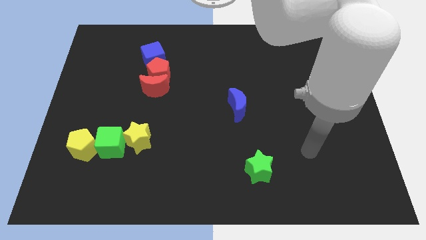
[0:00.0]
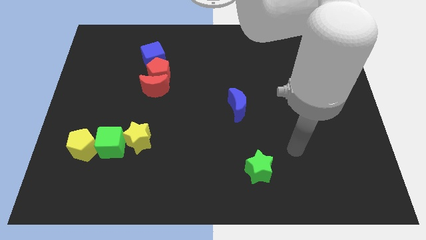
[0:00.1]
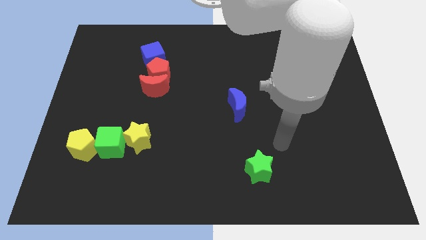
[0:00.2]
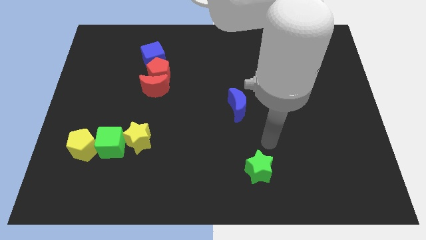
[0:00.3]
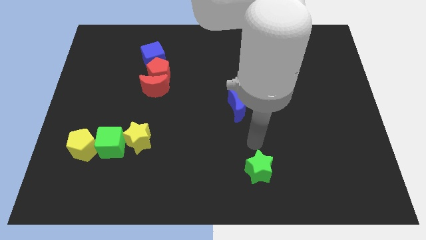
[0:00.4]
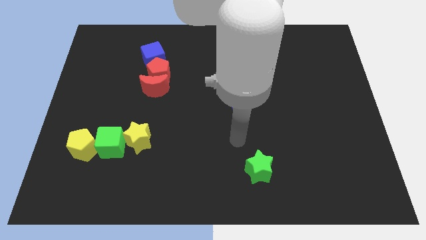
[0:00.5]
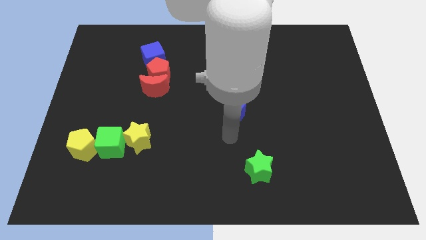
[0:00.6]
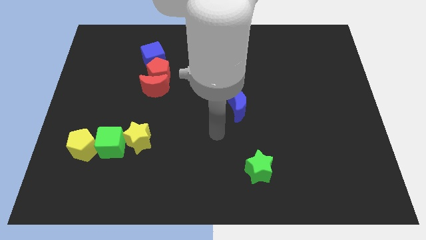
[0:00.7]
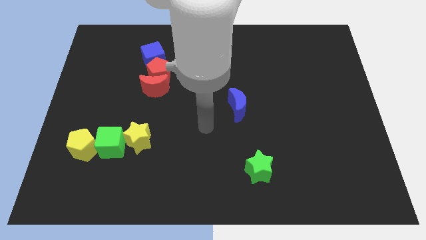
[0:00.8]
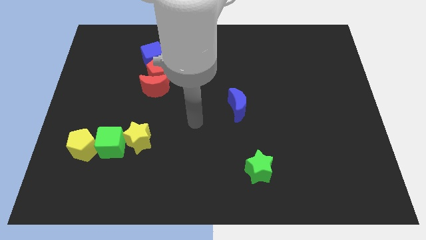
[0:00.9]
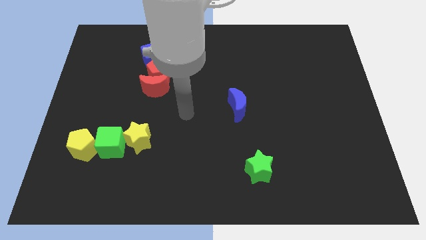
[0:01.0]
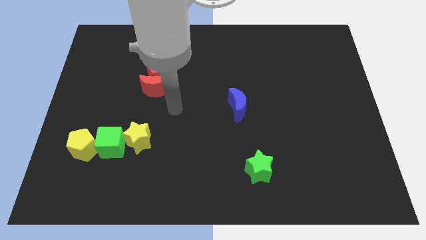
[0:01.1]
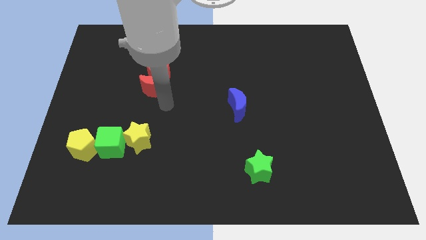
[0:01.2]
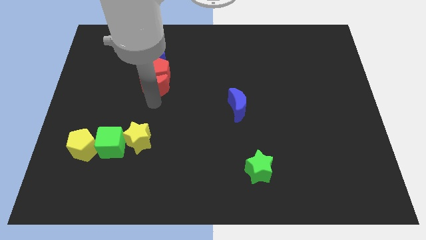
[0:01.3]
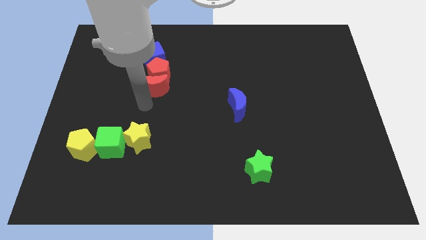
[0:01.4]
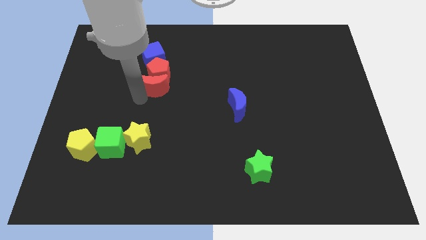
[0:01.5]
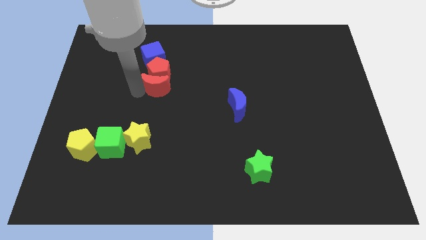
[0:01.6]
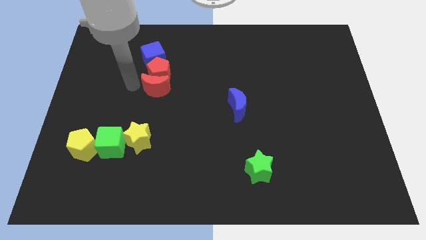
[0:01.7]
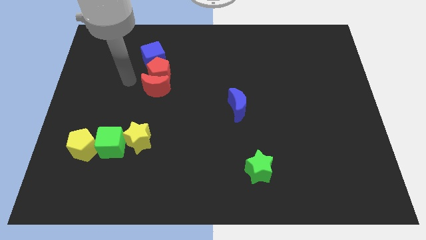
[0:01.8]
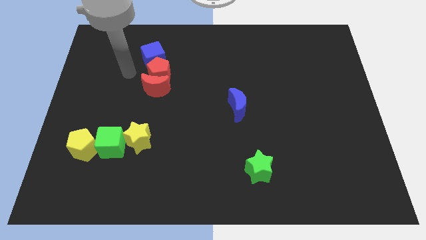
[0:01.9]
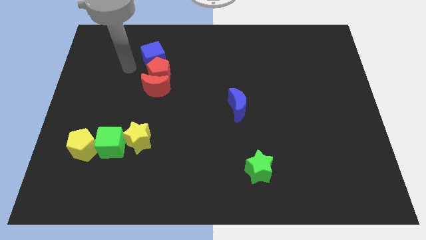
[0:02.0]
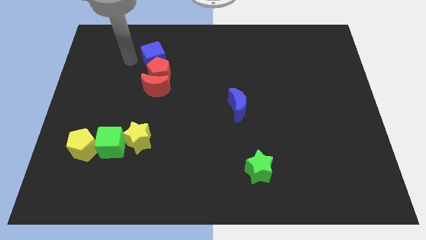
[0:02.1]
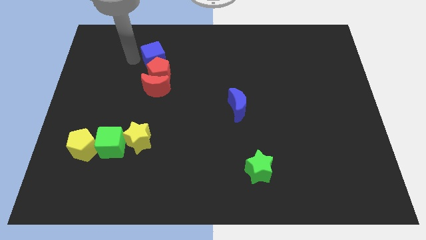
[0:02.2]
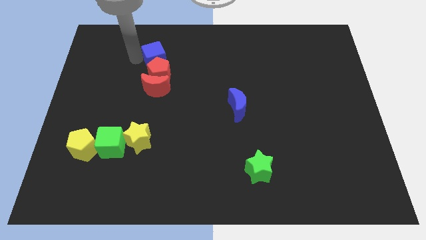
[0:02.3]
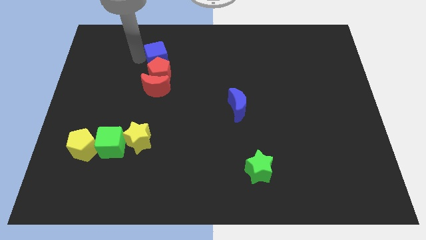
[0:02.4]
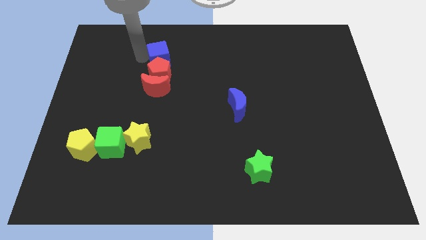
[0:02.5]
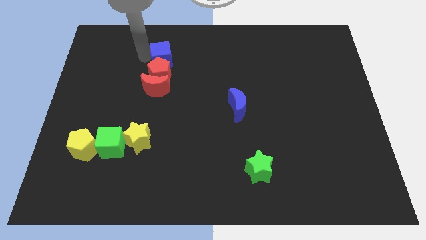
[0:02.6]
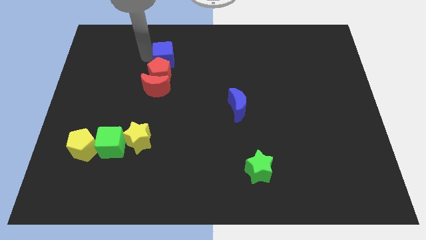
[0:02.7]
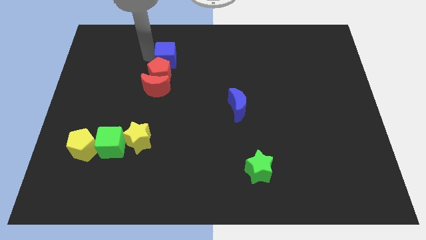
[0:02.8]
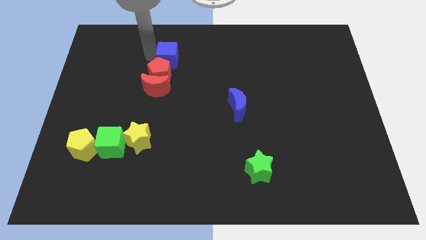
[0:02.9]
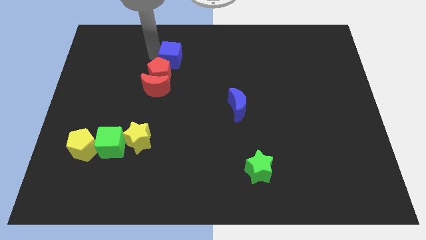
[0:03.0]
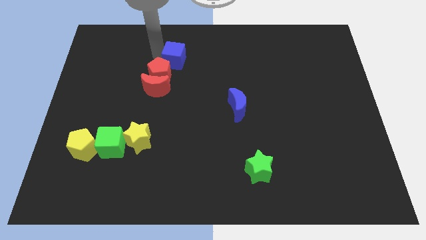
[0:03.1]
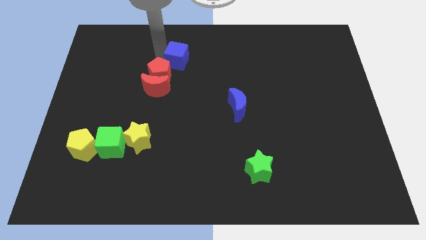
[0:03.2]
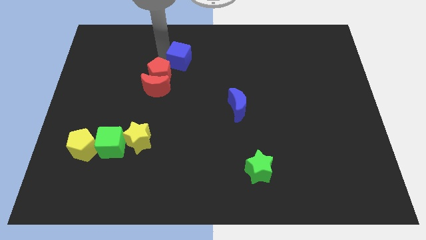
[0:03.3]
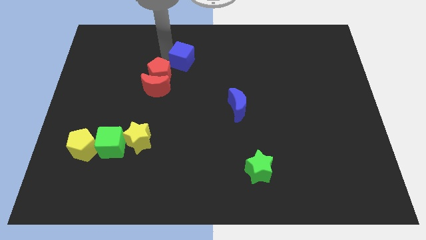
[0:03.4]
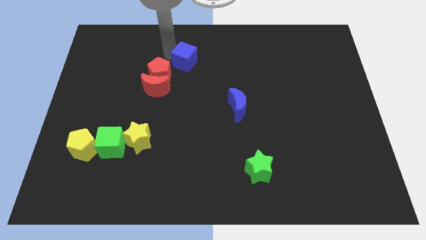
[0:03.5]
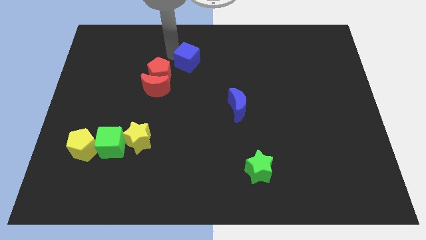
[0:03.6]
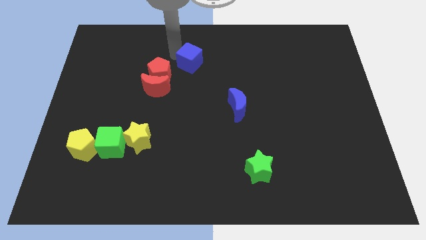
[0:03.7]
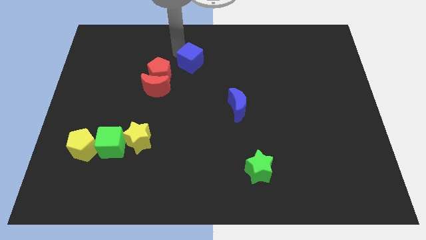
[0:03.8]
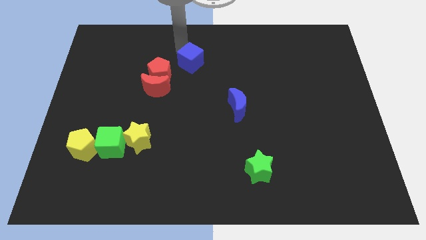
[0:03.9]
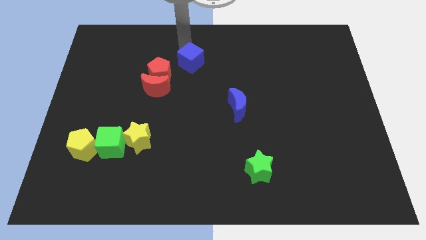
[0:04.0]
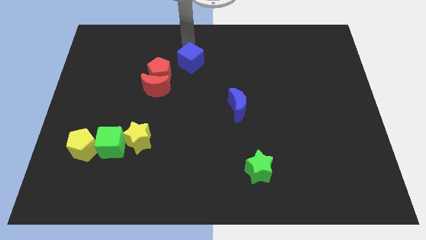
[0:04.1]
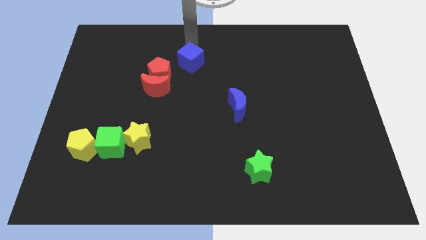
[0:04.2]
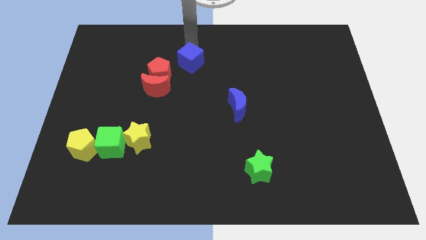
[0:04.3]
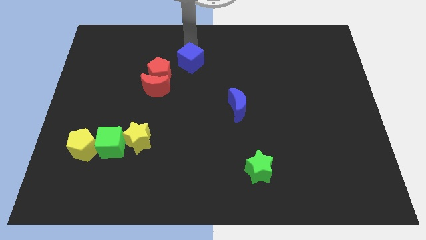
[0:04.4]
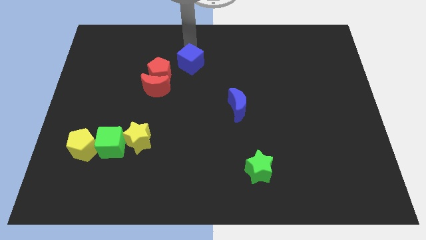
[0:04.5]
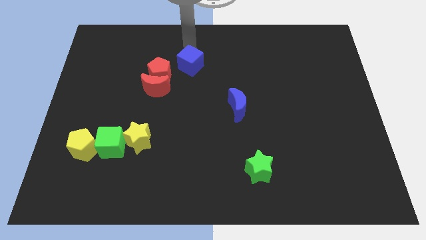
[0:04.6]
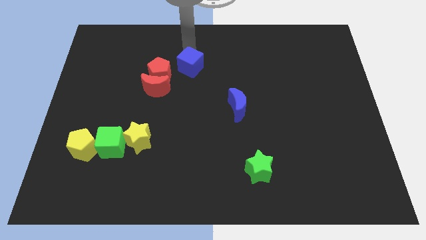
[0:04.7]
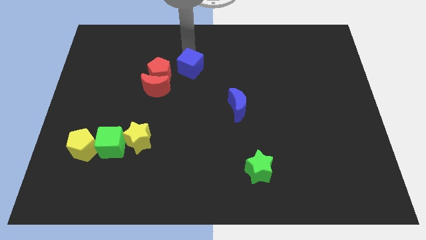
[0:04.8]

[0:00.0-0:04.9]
push the blue cube to the middle of the board

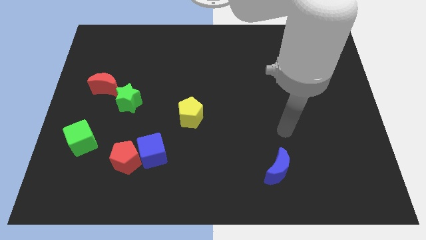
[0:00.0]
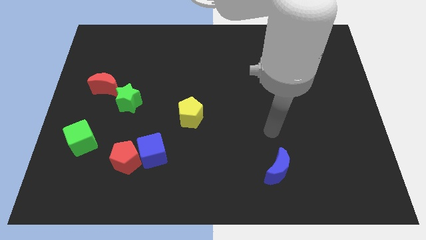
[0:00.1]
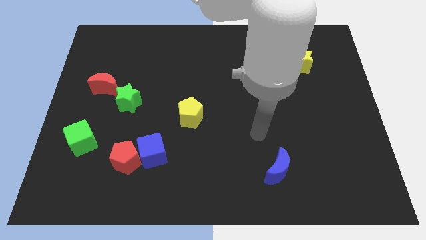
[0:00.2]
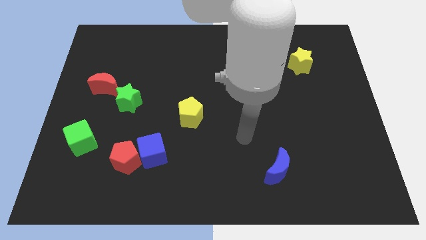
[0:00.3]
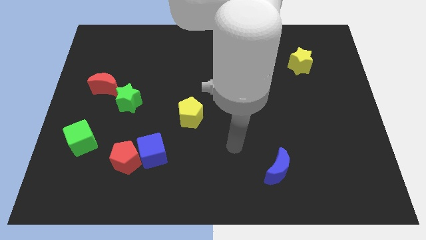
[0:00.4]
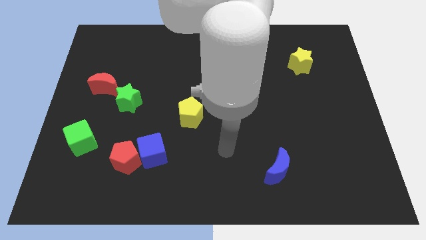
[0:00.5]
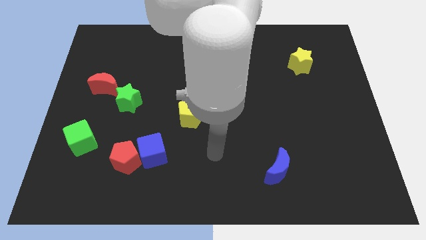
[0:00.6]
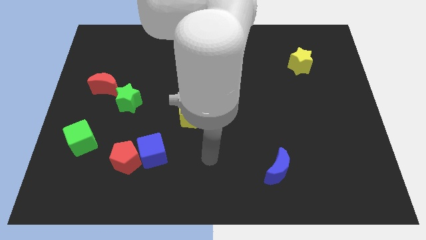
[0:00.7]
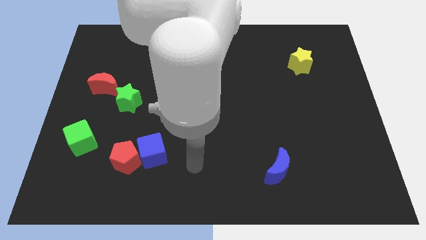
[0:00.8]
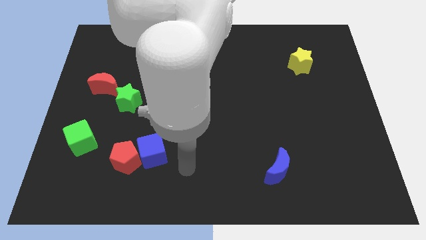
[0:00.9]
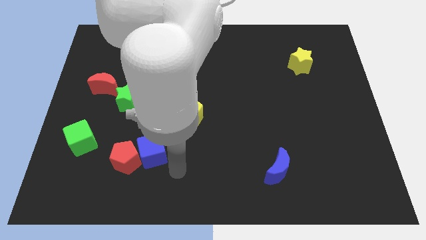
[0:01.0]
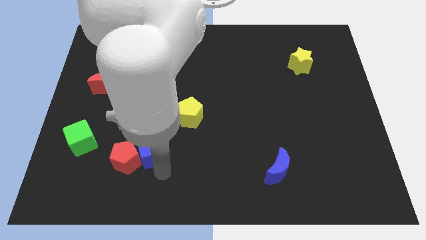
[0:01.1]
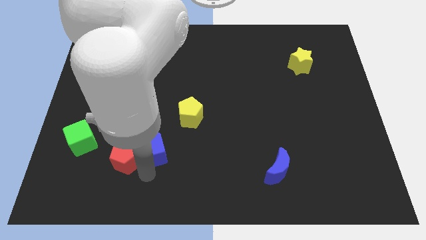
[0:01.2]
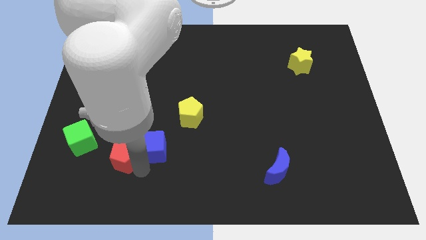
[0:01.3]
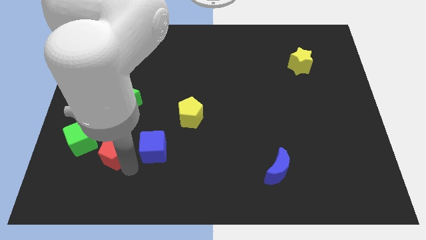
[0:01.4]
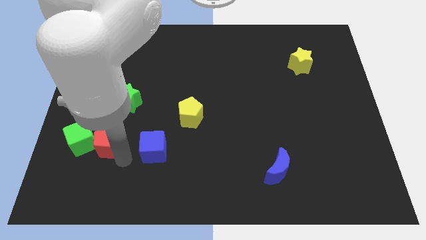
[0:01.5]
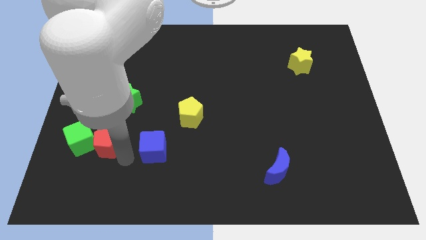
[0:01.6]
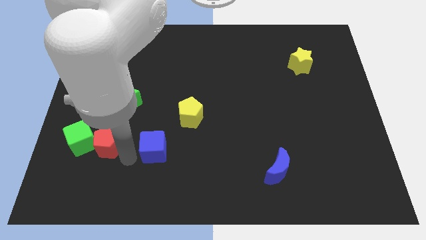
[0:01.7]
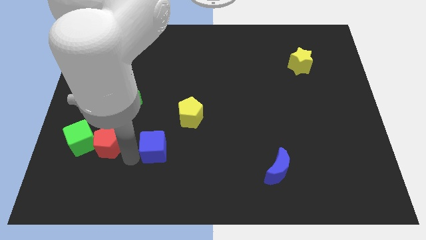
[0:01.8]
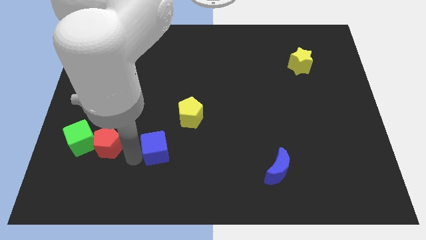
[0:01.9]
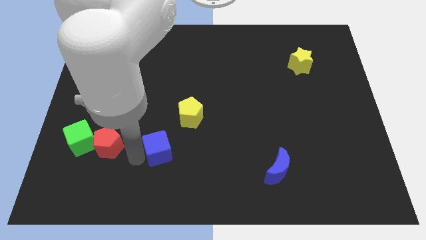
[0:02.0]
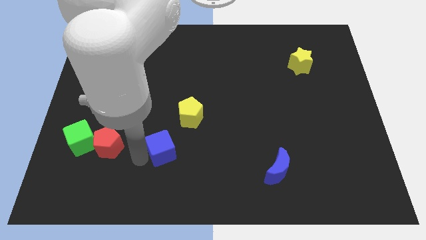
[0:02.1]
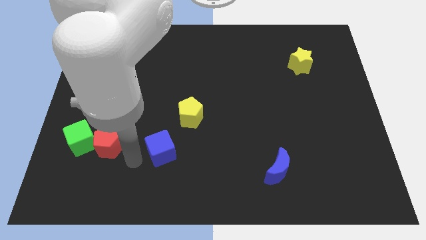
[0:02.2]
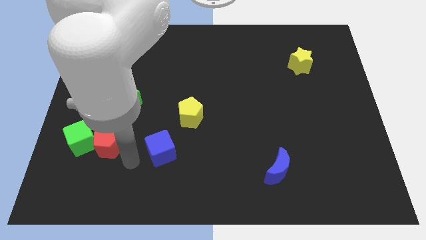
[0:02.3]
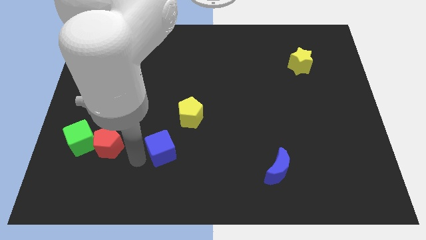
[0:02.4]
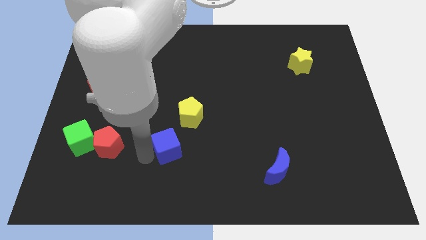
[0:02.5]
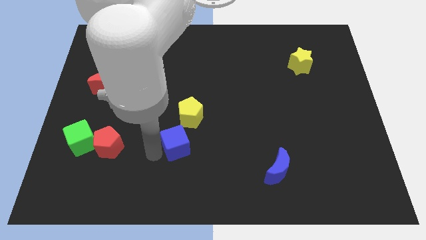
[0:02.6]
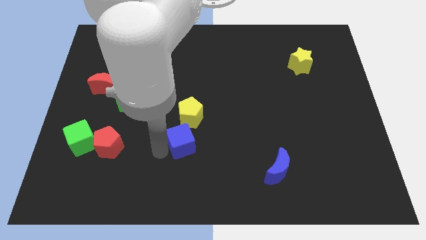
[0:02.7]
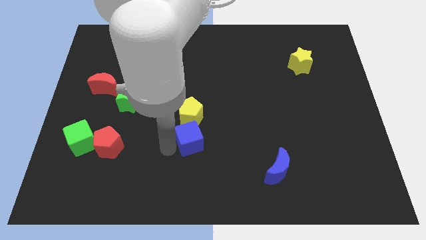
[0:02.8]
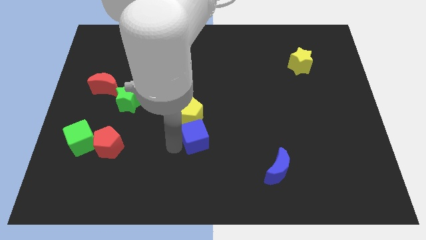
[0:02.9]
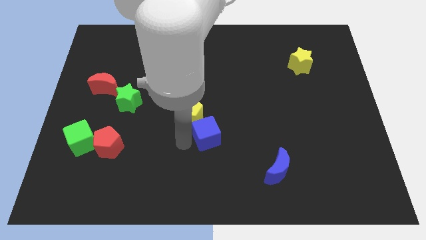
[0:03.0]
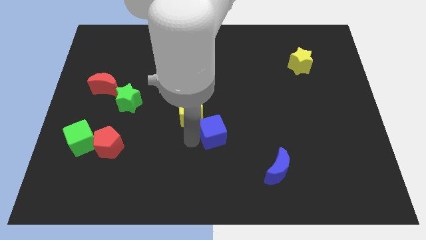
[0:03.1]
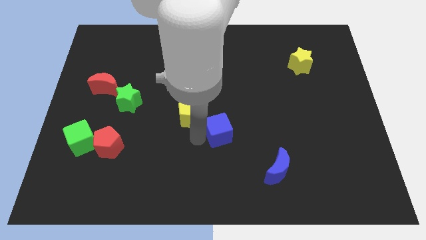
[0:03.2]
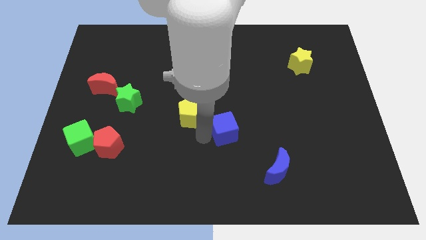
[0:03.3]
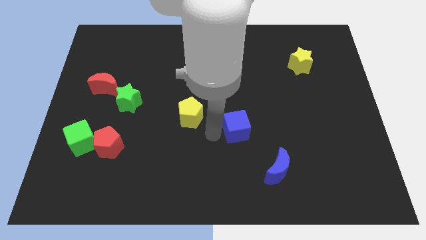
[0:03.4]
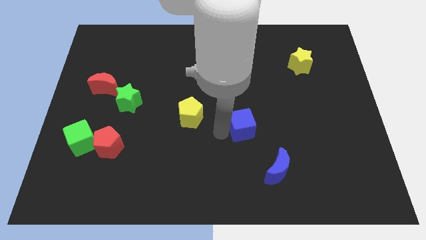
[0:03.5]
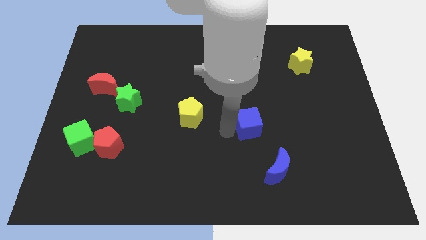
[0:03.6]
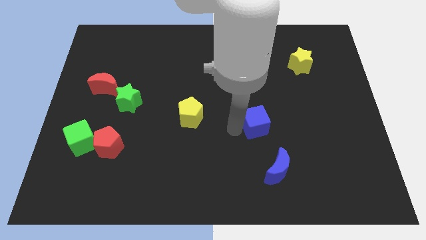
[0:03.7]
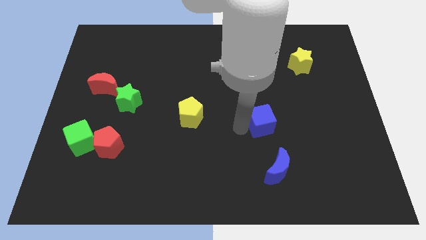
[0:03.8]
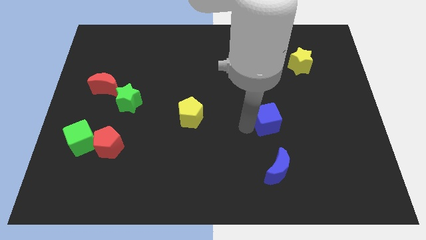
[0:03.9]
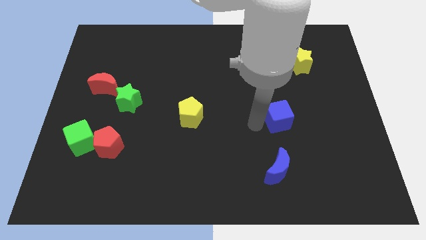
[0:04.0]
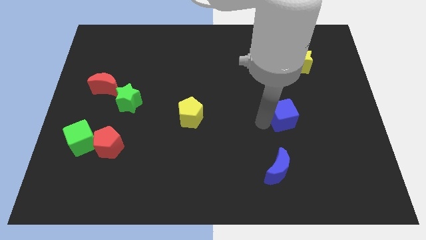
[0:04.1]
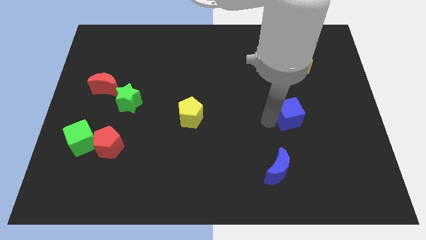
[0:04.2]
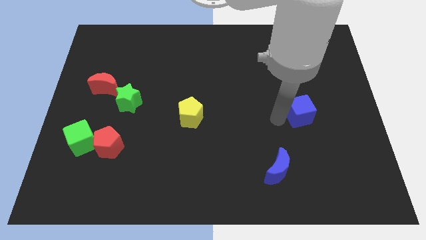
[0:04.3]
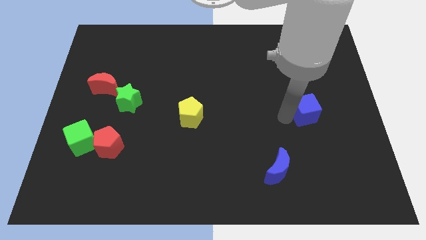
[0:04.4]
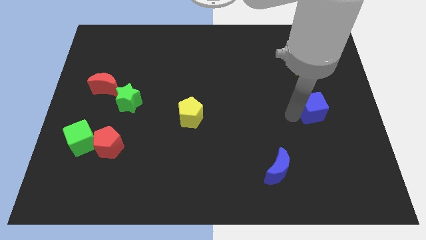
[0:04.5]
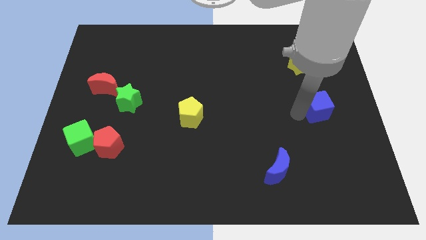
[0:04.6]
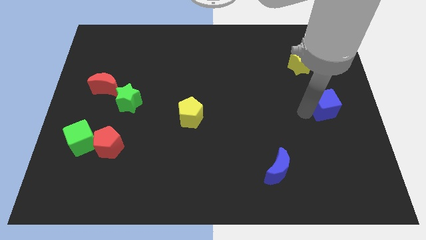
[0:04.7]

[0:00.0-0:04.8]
put the blue cube to the right side
